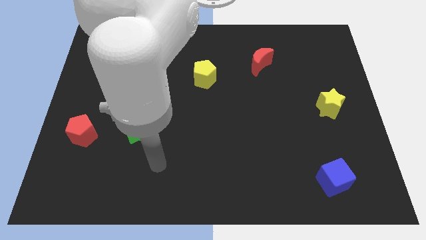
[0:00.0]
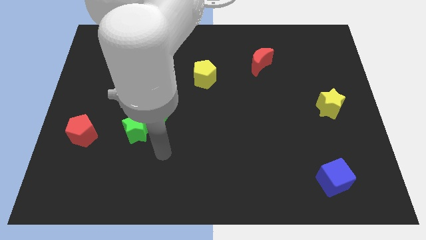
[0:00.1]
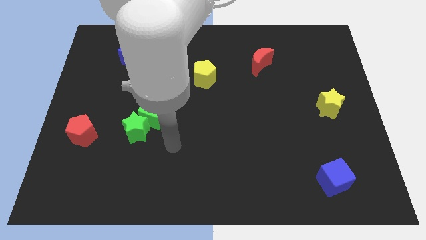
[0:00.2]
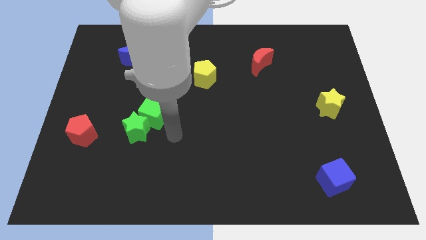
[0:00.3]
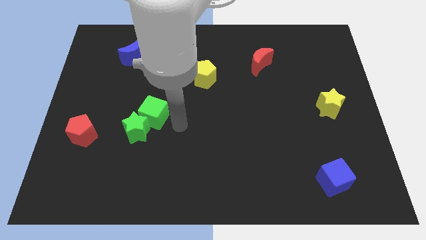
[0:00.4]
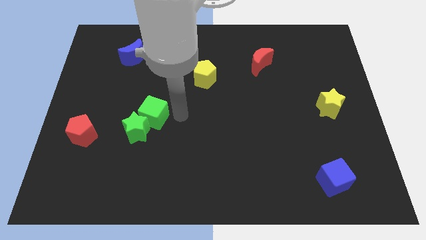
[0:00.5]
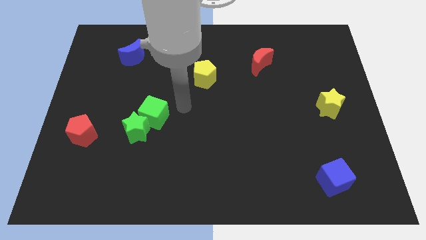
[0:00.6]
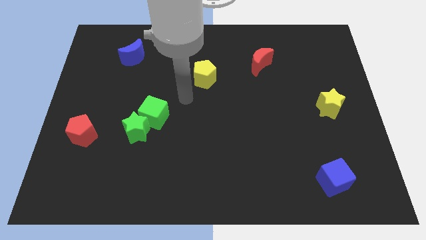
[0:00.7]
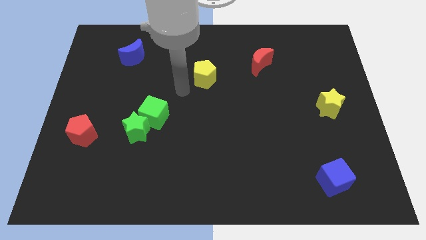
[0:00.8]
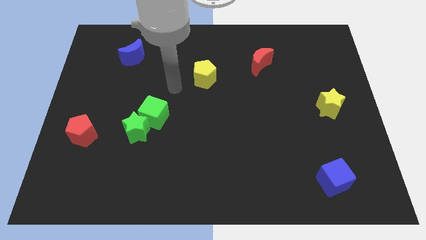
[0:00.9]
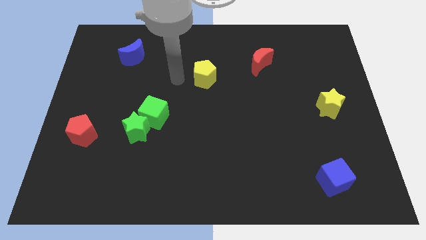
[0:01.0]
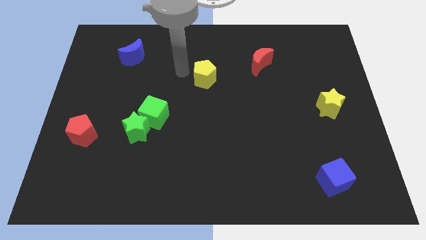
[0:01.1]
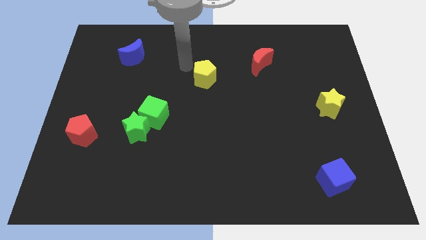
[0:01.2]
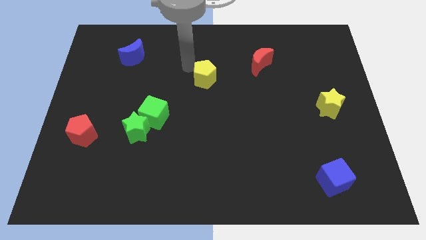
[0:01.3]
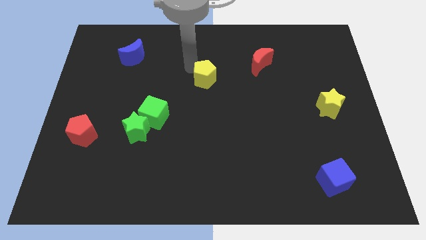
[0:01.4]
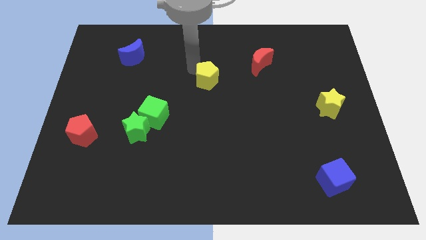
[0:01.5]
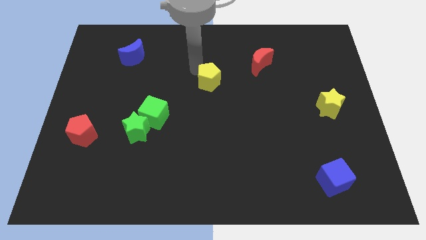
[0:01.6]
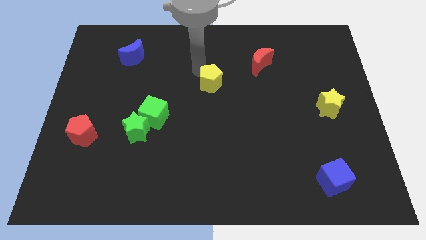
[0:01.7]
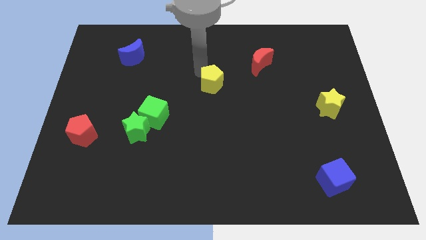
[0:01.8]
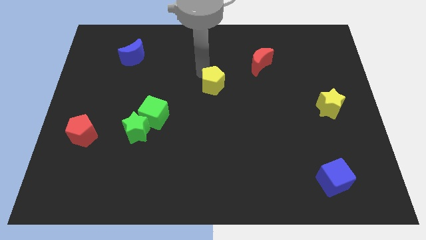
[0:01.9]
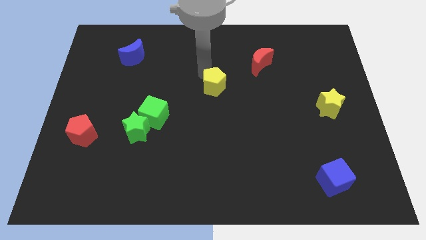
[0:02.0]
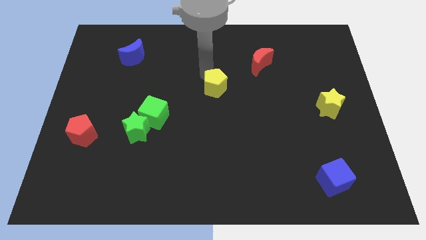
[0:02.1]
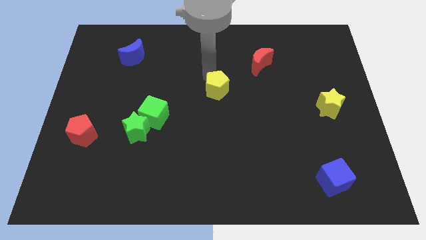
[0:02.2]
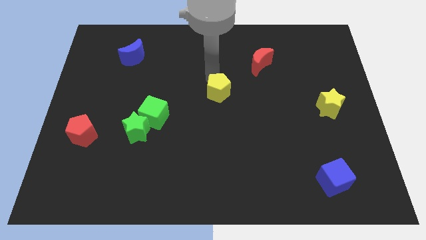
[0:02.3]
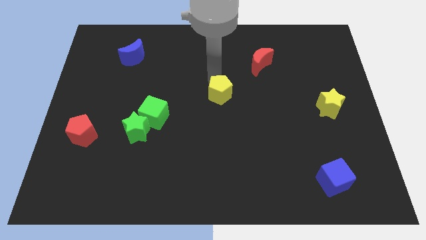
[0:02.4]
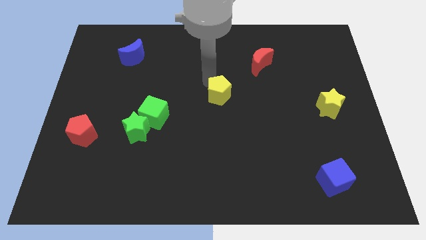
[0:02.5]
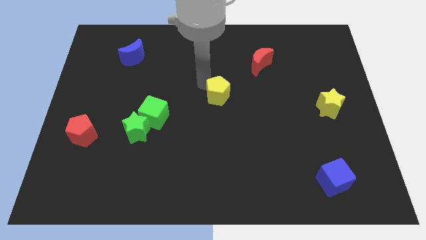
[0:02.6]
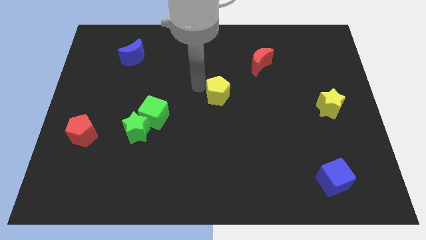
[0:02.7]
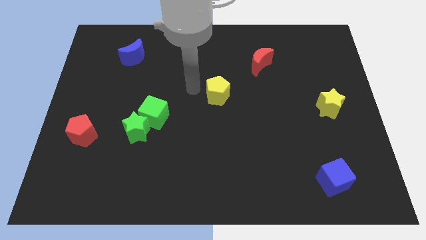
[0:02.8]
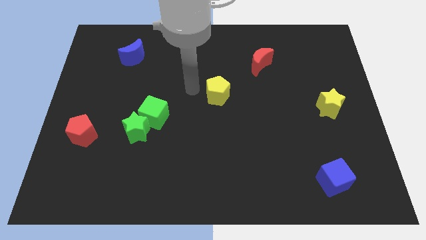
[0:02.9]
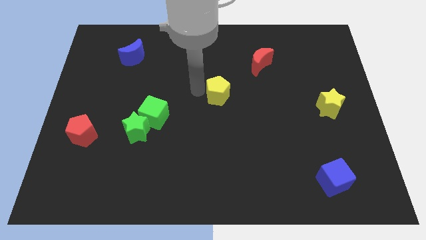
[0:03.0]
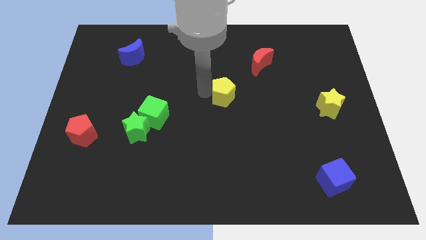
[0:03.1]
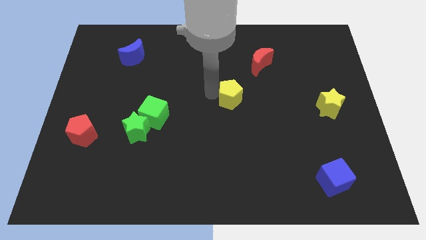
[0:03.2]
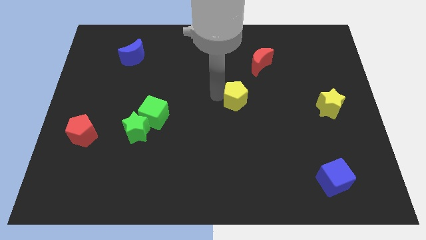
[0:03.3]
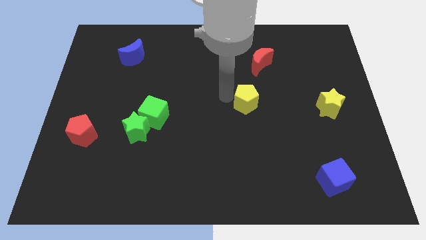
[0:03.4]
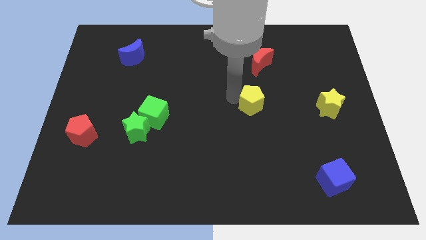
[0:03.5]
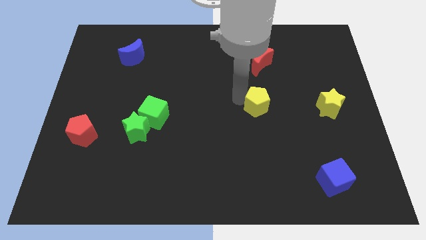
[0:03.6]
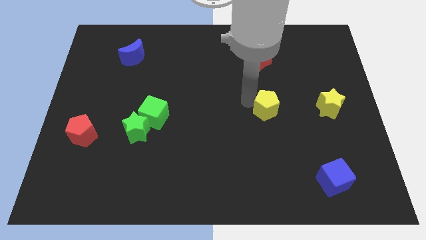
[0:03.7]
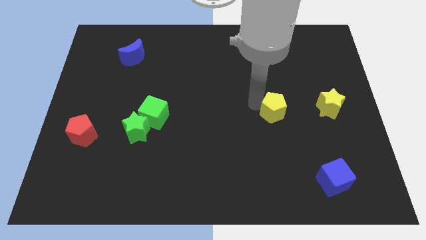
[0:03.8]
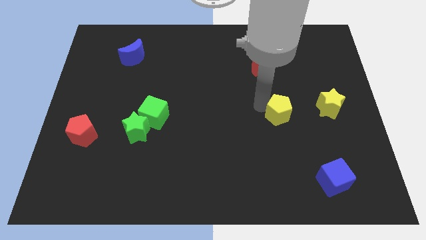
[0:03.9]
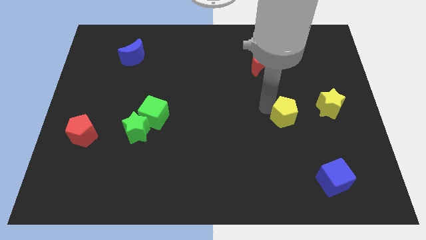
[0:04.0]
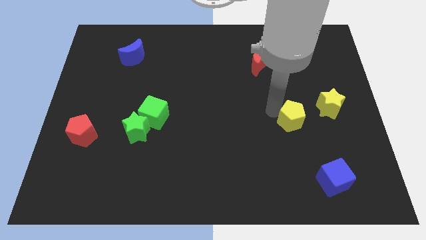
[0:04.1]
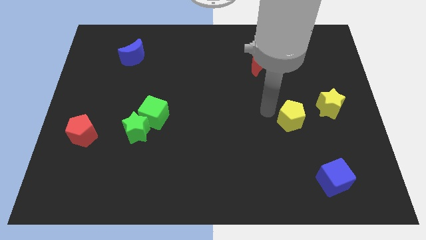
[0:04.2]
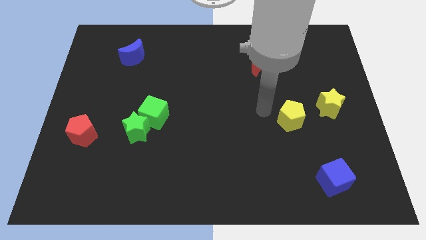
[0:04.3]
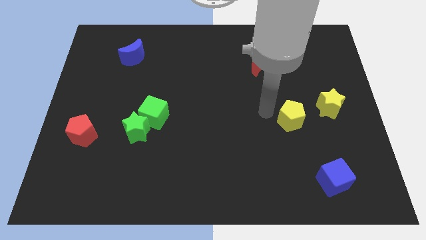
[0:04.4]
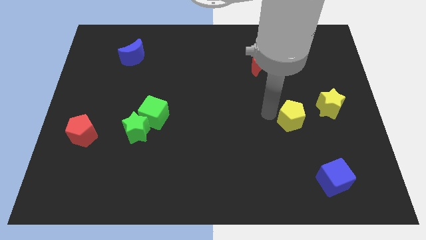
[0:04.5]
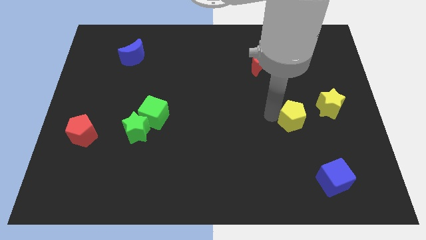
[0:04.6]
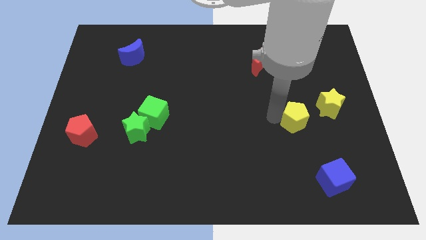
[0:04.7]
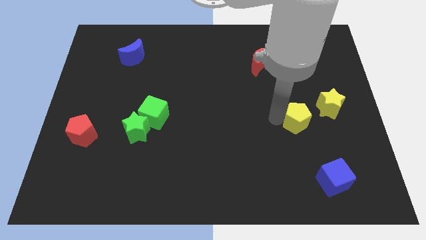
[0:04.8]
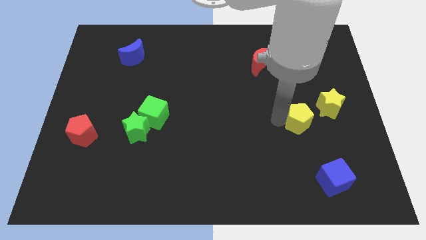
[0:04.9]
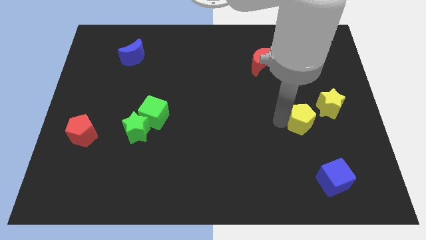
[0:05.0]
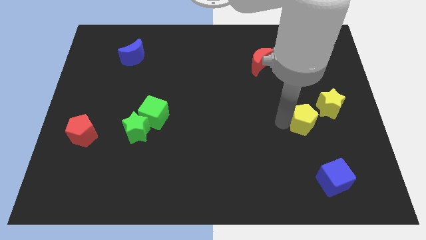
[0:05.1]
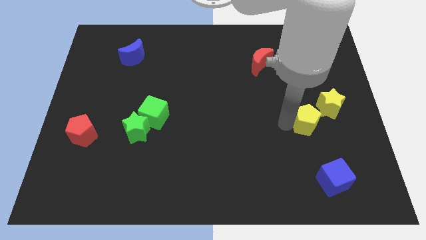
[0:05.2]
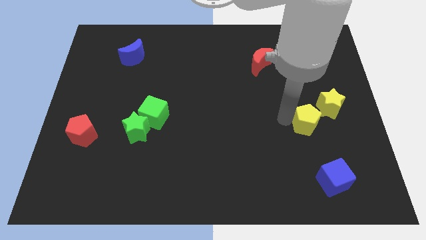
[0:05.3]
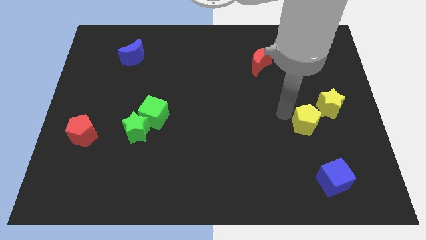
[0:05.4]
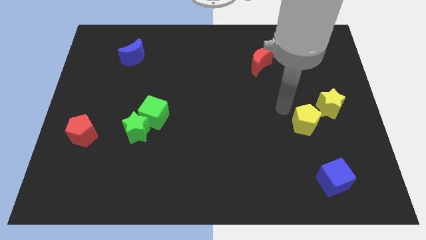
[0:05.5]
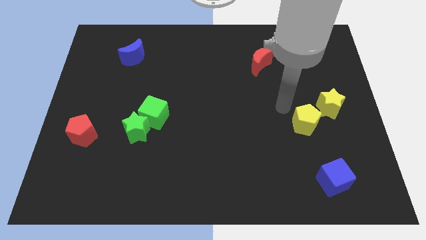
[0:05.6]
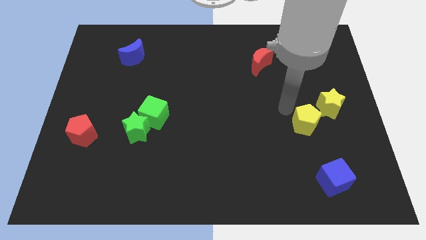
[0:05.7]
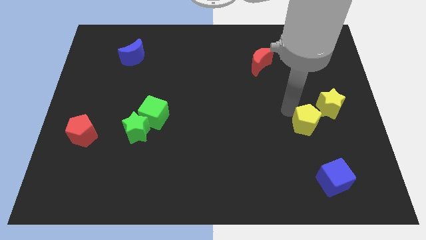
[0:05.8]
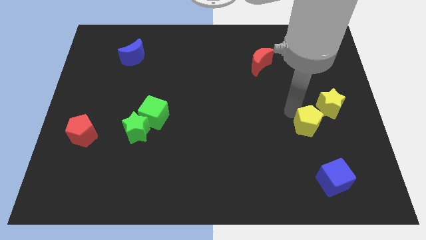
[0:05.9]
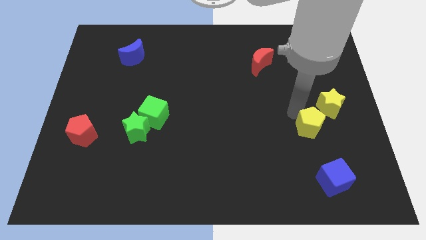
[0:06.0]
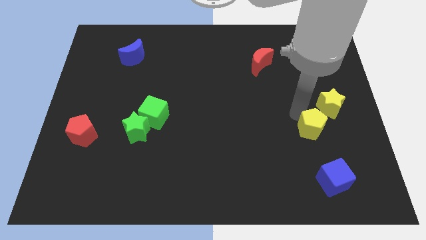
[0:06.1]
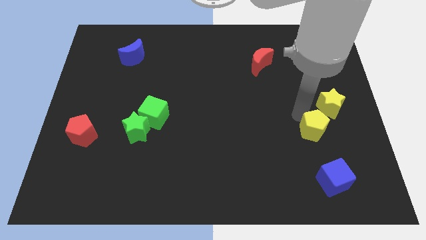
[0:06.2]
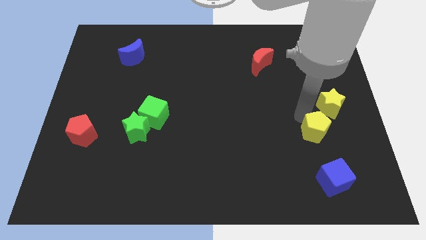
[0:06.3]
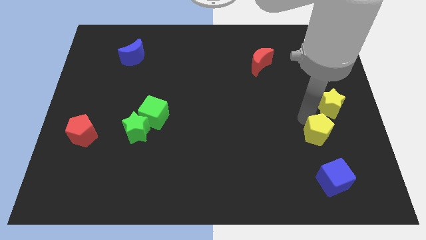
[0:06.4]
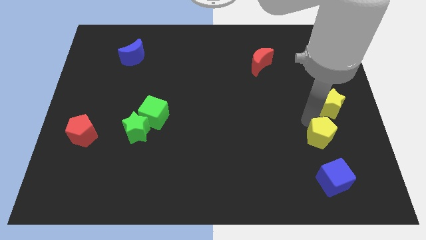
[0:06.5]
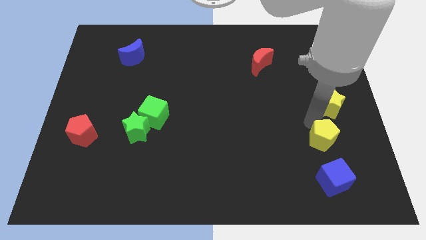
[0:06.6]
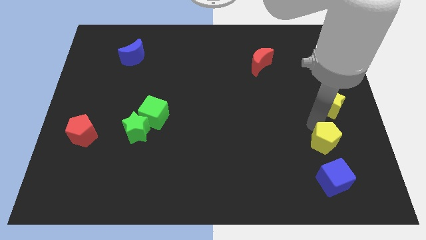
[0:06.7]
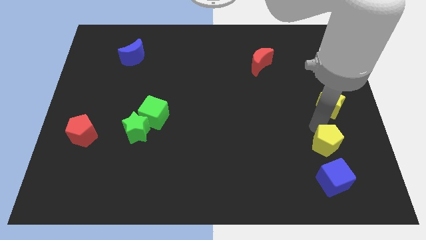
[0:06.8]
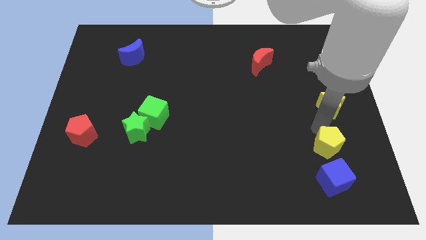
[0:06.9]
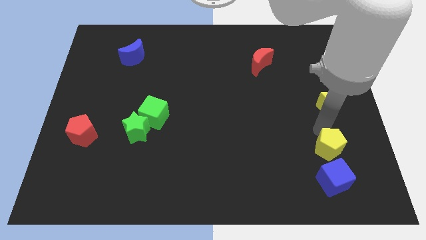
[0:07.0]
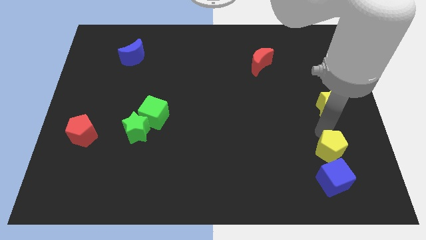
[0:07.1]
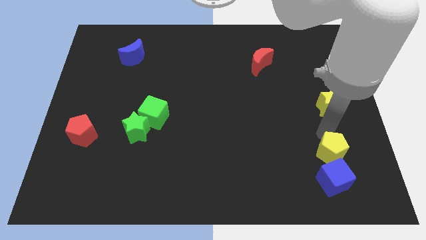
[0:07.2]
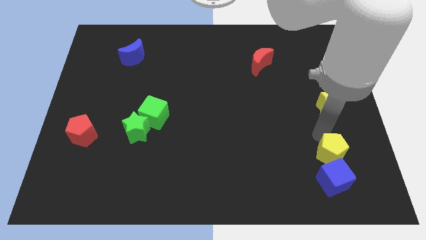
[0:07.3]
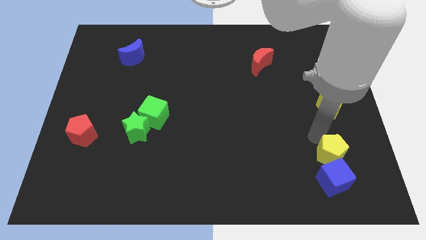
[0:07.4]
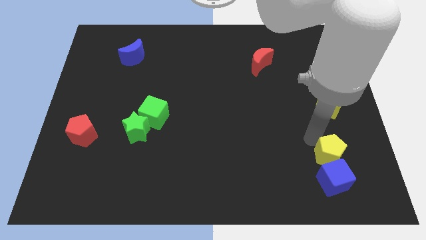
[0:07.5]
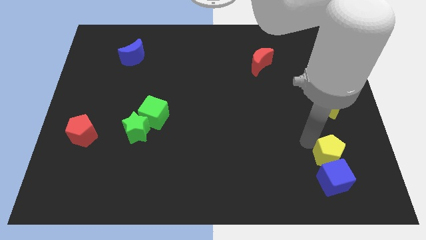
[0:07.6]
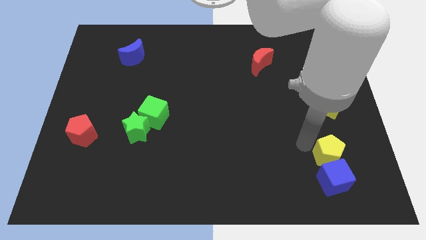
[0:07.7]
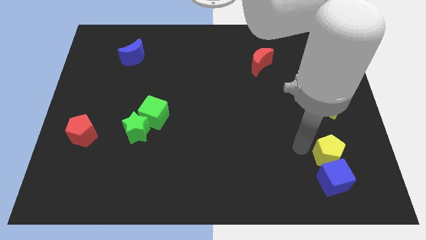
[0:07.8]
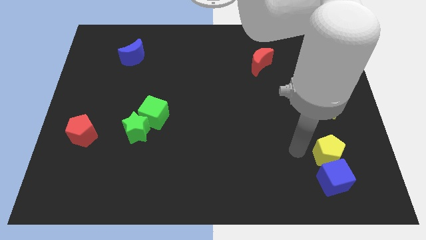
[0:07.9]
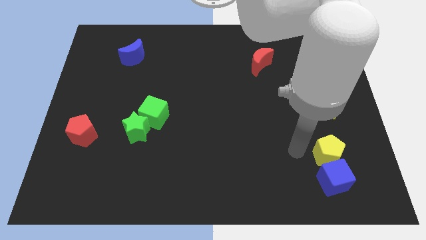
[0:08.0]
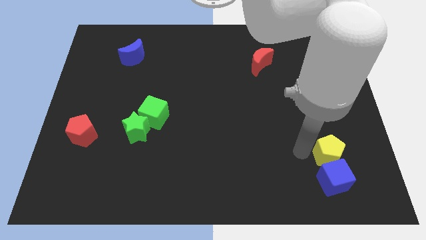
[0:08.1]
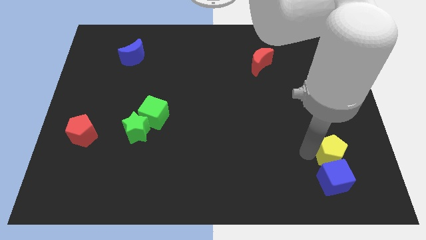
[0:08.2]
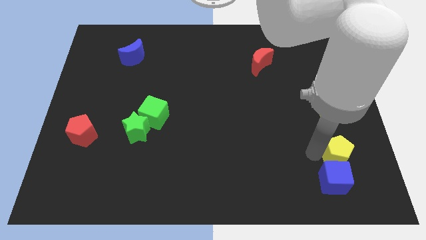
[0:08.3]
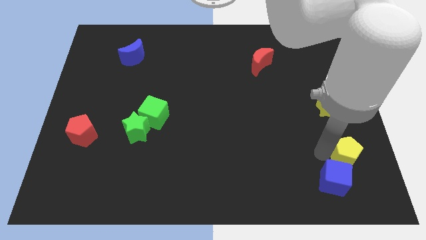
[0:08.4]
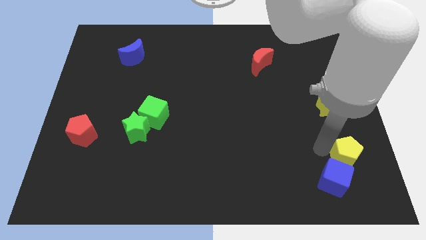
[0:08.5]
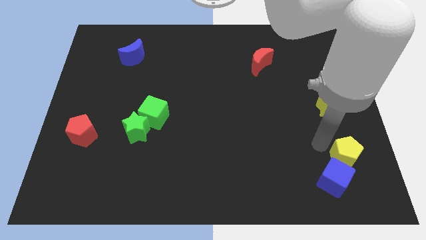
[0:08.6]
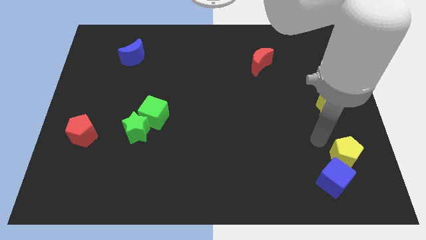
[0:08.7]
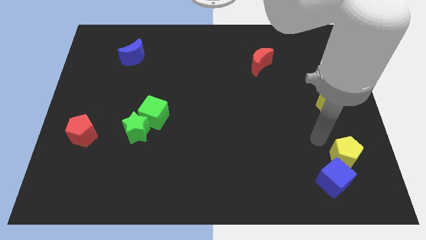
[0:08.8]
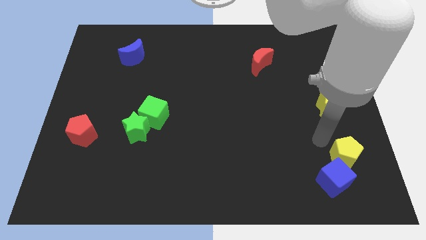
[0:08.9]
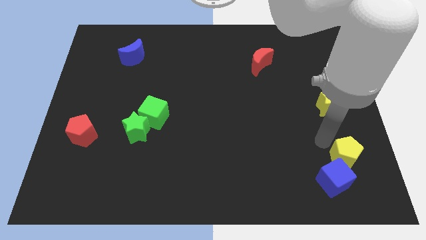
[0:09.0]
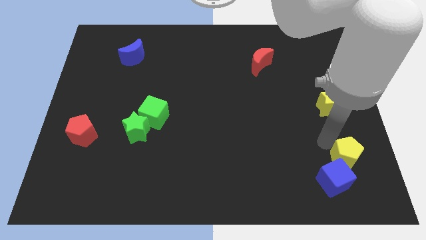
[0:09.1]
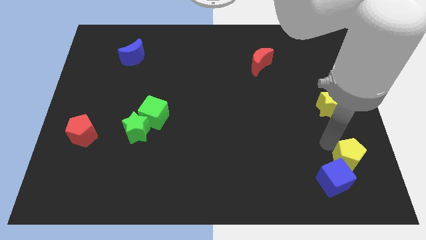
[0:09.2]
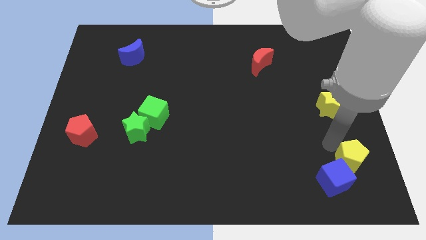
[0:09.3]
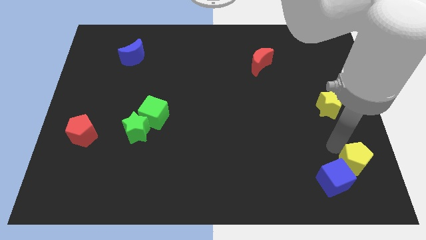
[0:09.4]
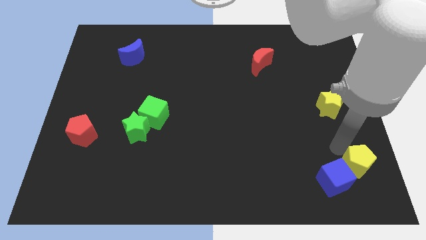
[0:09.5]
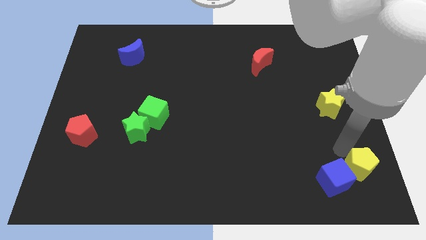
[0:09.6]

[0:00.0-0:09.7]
put the yellow pentagon to the bottom right
